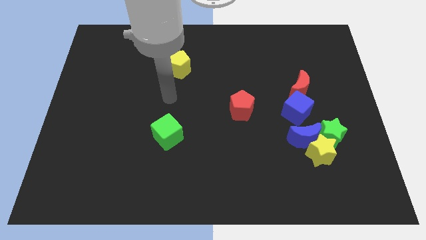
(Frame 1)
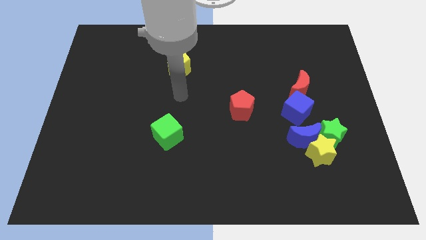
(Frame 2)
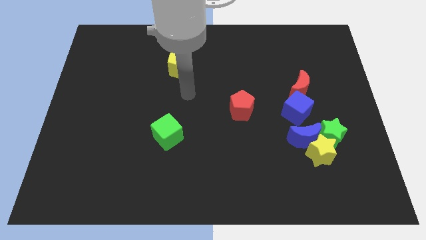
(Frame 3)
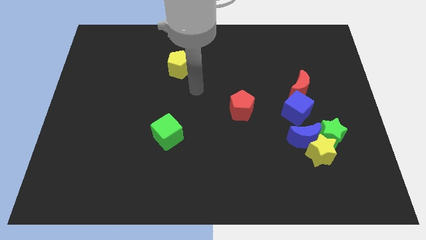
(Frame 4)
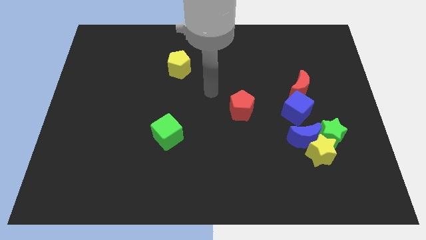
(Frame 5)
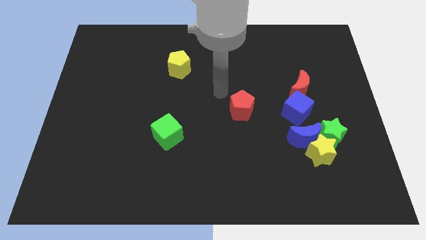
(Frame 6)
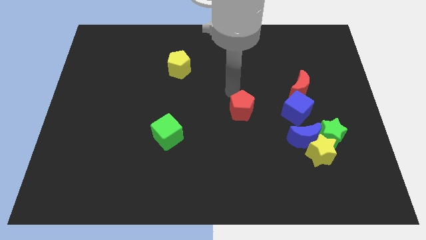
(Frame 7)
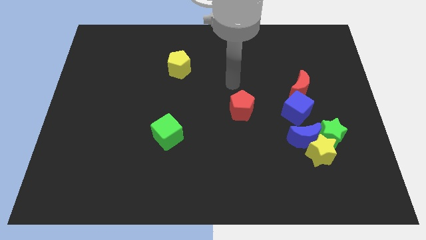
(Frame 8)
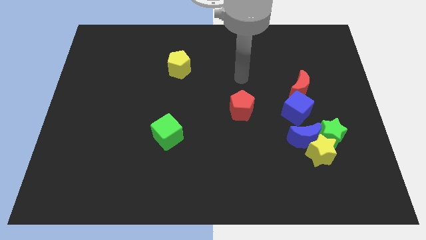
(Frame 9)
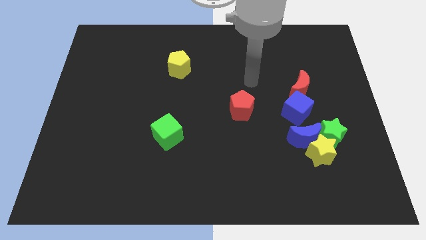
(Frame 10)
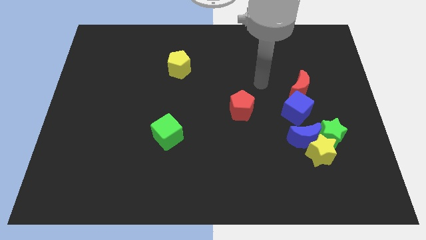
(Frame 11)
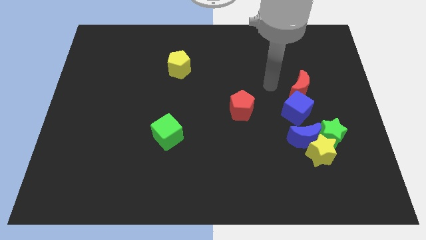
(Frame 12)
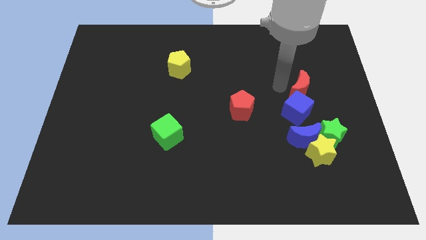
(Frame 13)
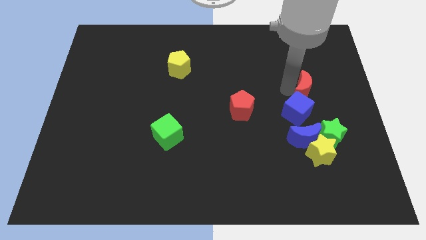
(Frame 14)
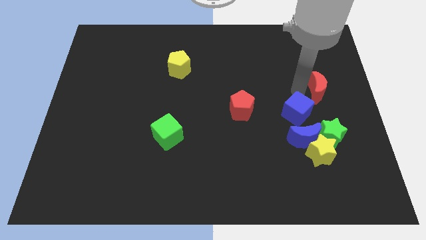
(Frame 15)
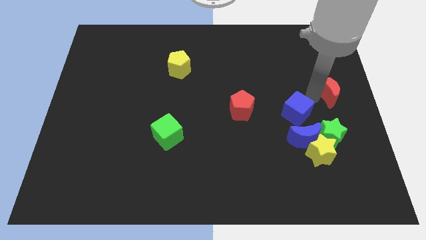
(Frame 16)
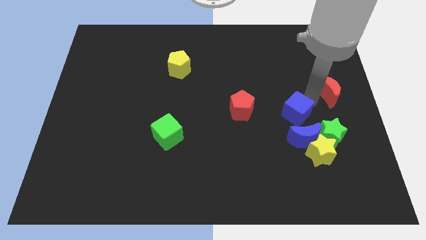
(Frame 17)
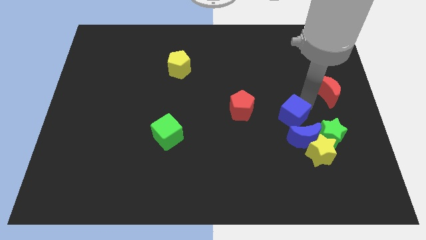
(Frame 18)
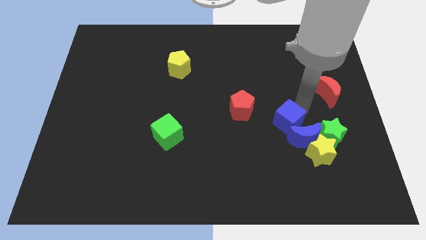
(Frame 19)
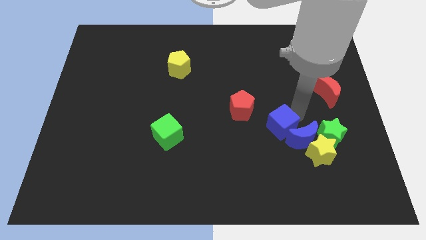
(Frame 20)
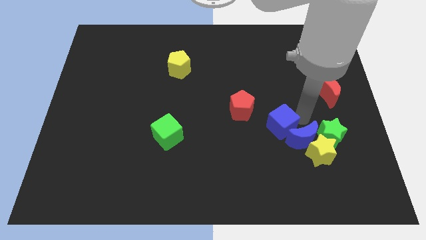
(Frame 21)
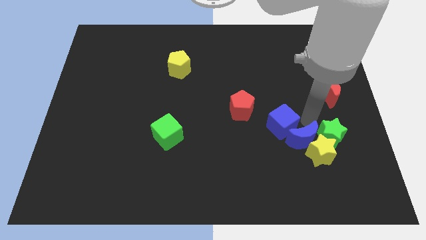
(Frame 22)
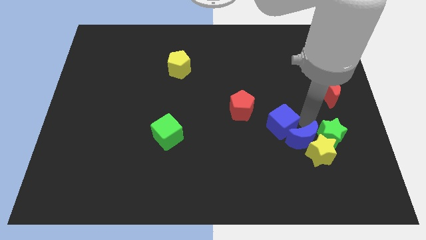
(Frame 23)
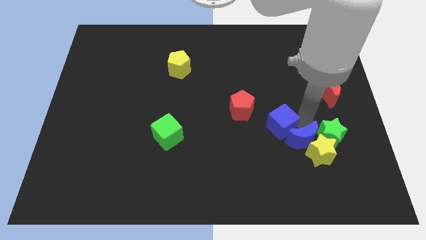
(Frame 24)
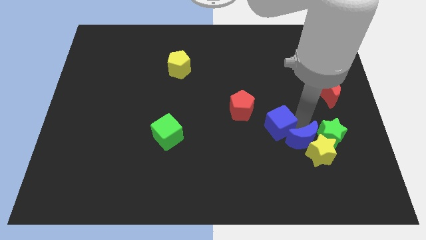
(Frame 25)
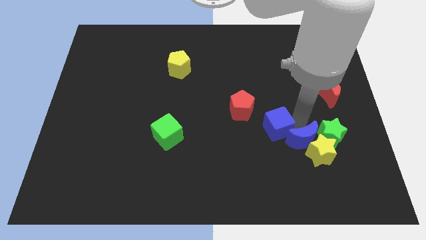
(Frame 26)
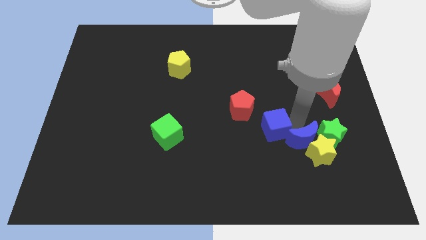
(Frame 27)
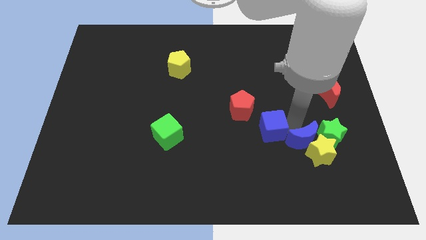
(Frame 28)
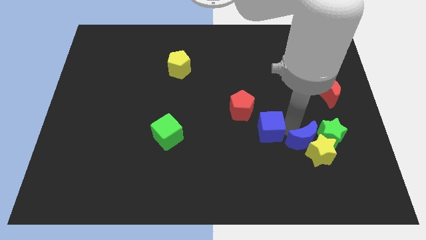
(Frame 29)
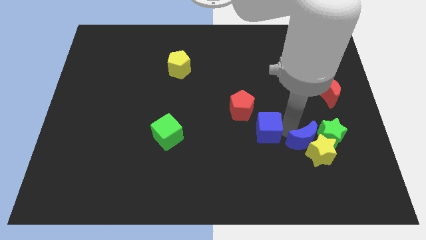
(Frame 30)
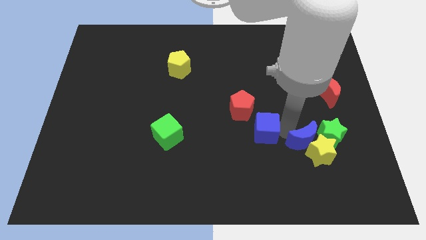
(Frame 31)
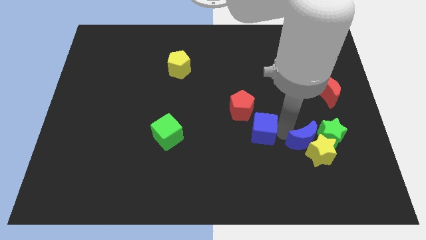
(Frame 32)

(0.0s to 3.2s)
slightly slide the blue cube to the left

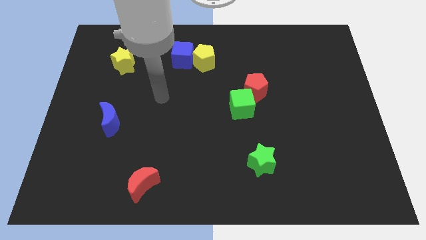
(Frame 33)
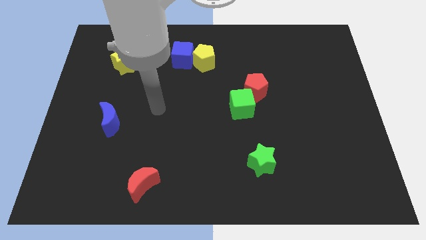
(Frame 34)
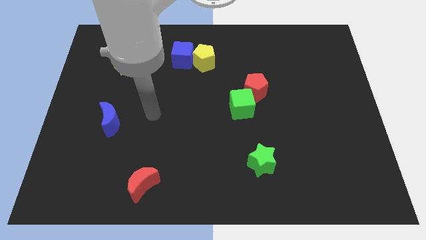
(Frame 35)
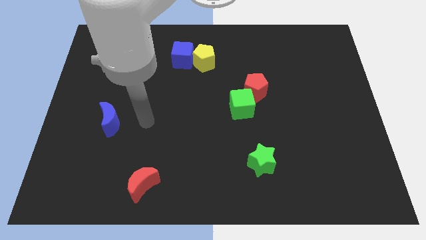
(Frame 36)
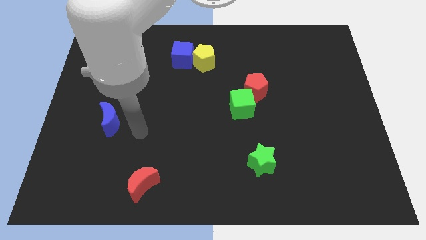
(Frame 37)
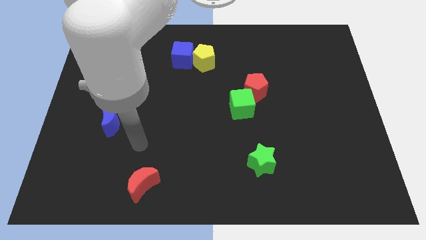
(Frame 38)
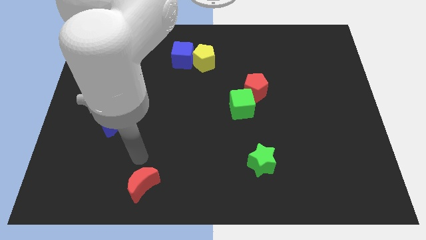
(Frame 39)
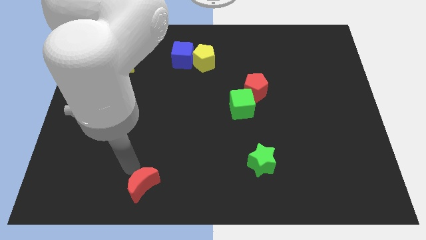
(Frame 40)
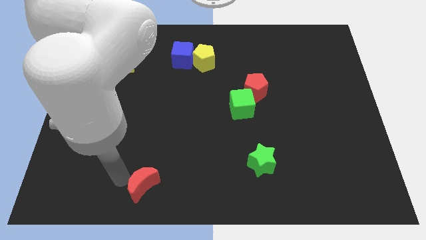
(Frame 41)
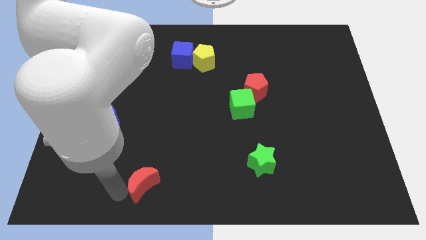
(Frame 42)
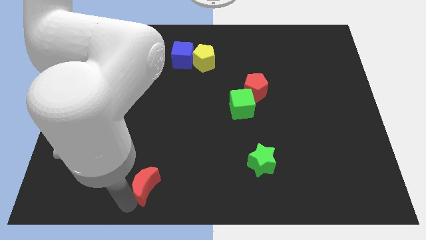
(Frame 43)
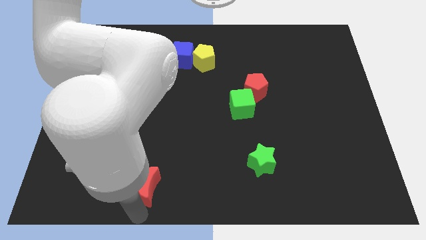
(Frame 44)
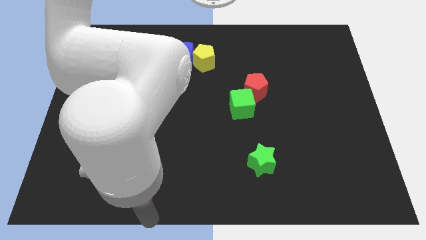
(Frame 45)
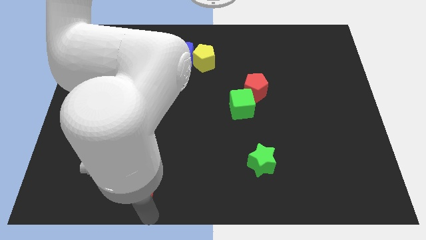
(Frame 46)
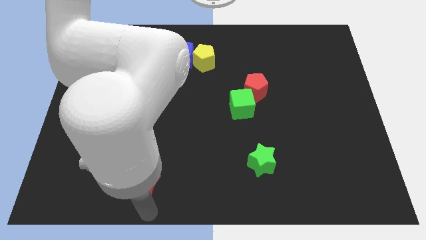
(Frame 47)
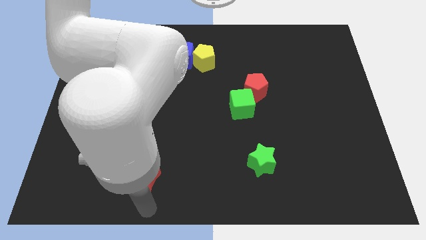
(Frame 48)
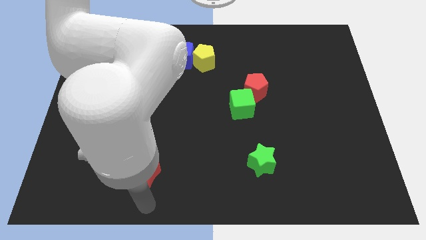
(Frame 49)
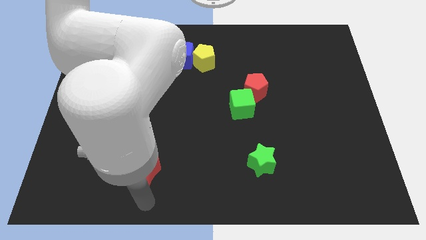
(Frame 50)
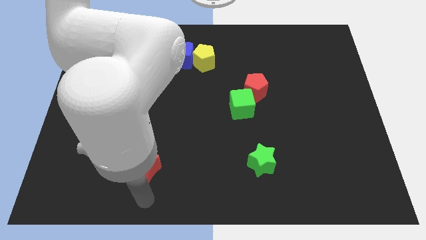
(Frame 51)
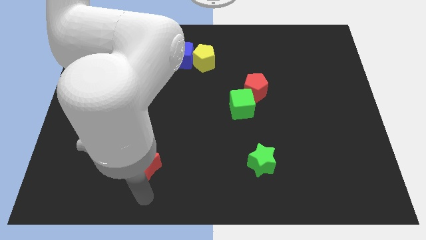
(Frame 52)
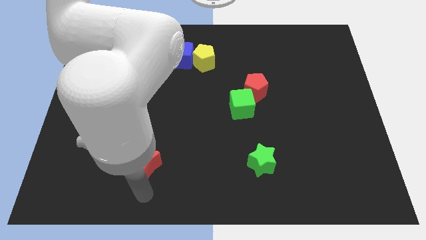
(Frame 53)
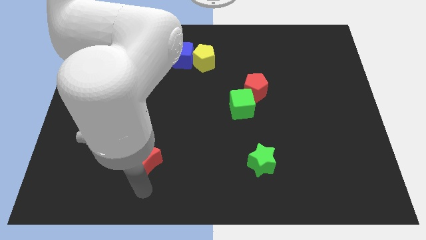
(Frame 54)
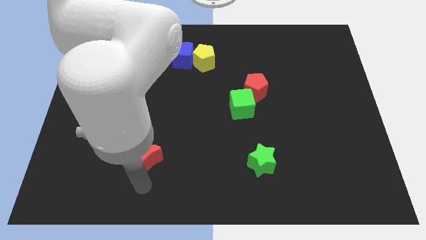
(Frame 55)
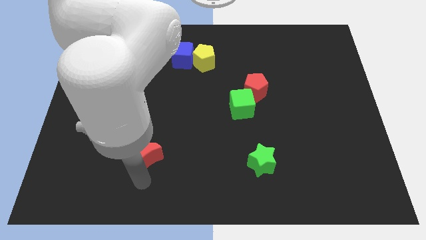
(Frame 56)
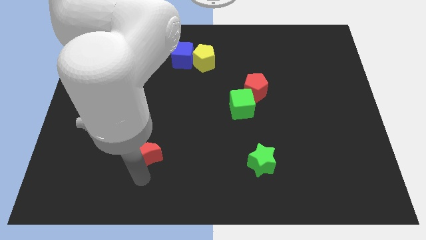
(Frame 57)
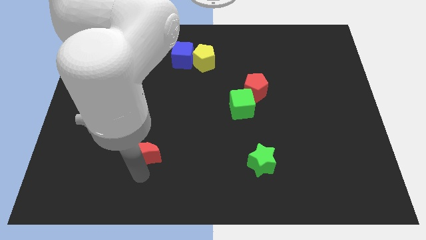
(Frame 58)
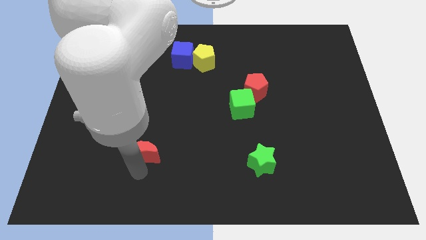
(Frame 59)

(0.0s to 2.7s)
slide the red moon slightly up

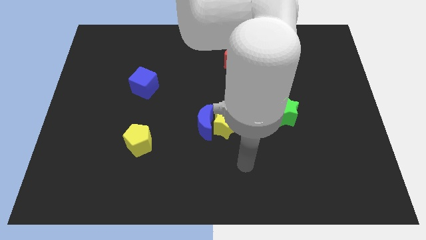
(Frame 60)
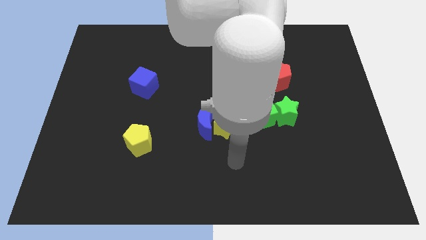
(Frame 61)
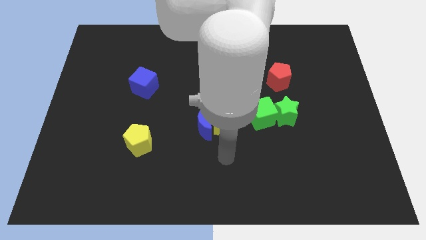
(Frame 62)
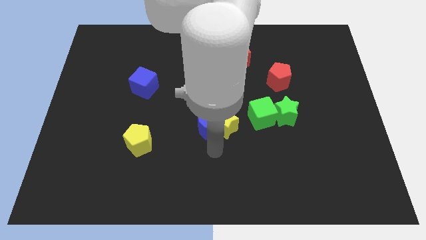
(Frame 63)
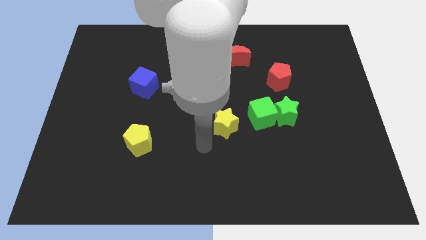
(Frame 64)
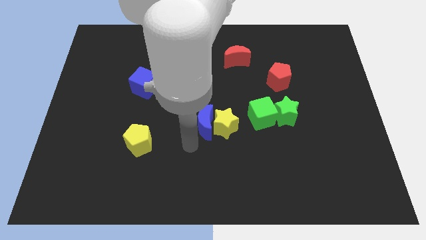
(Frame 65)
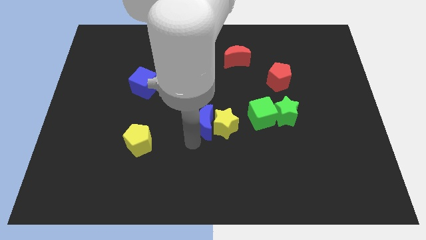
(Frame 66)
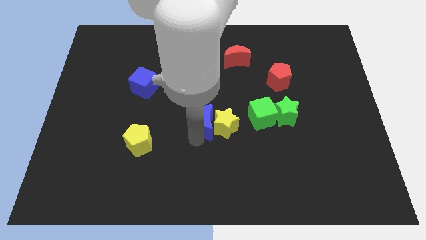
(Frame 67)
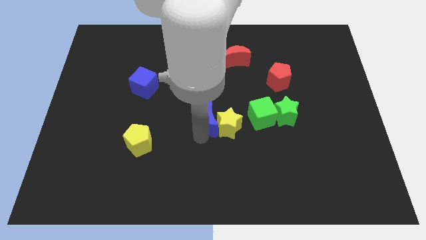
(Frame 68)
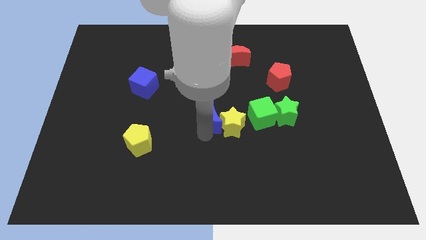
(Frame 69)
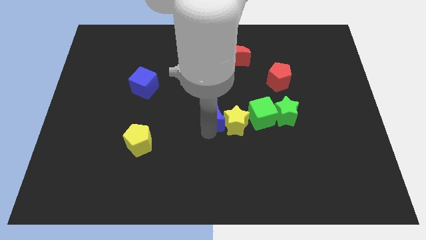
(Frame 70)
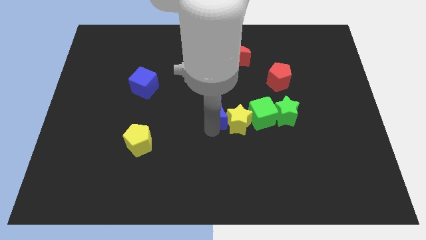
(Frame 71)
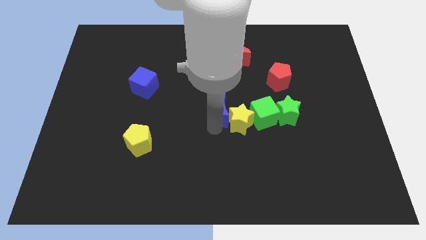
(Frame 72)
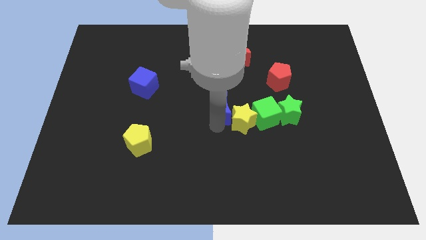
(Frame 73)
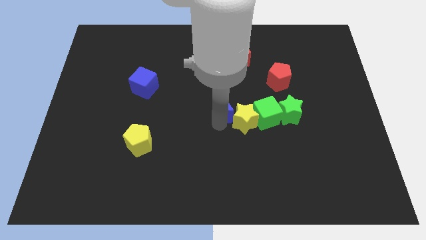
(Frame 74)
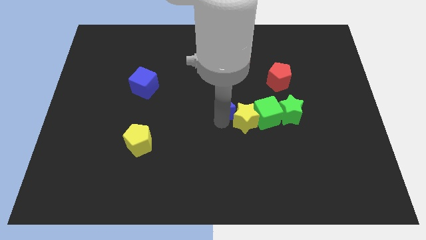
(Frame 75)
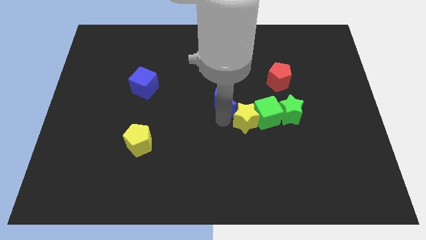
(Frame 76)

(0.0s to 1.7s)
move the blue moon a little up and to the right diagonally

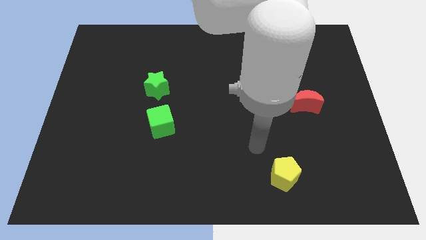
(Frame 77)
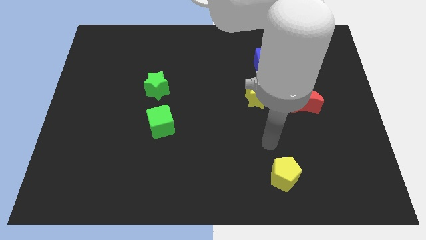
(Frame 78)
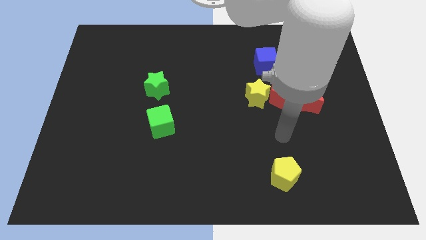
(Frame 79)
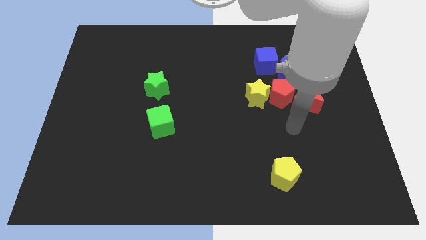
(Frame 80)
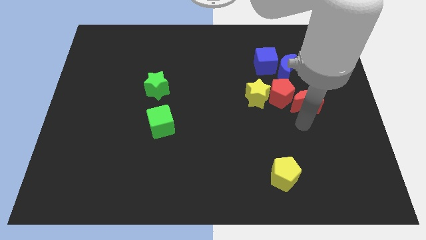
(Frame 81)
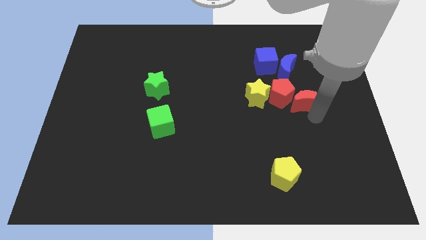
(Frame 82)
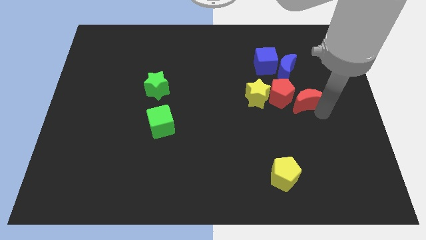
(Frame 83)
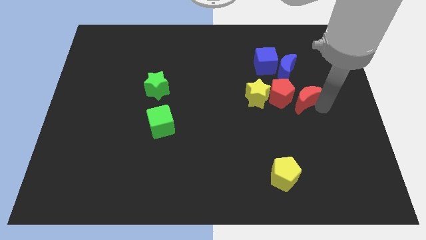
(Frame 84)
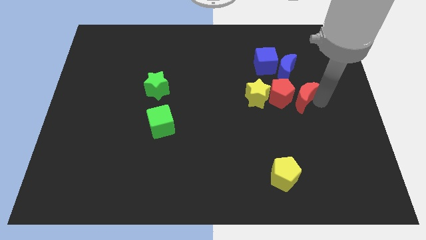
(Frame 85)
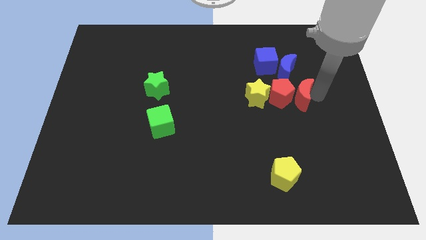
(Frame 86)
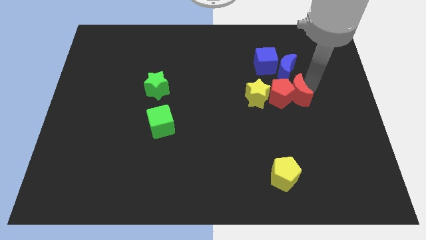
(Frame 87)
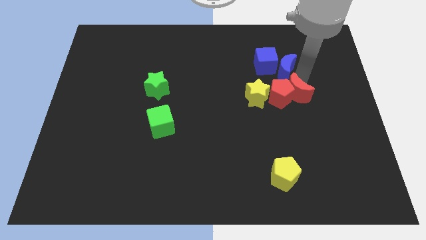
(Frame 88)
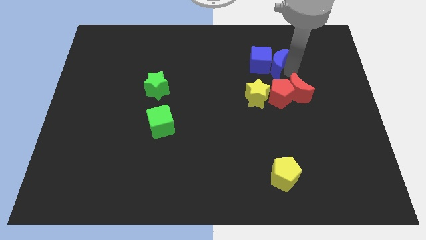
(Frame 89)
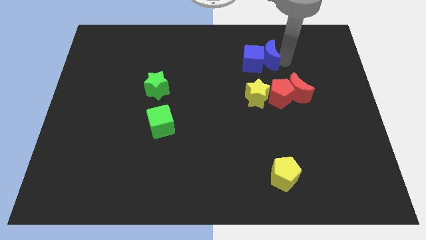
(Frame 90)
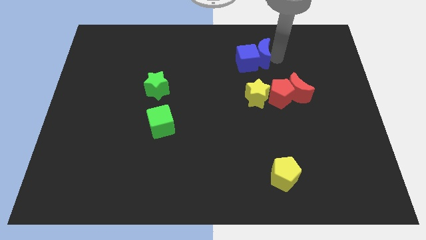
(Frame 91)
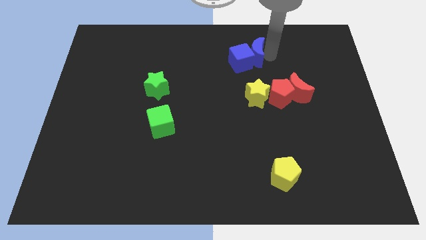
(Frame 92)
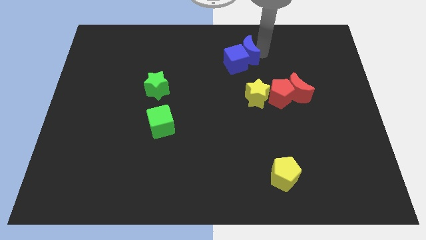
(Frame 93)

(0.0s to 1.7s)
slightly move the blue cube to the left
